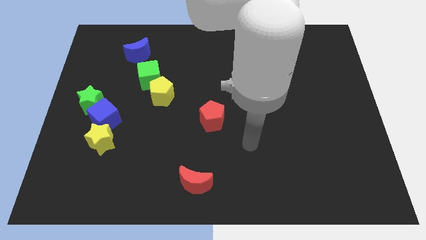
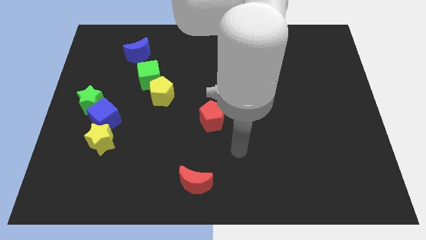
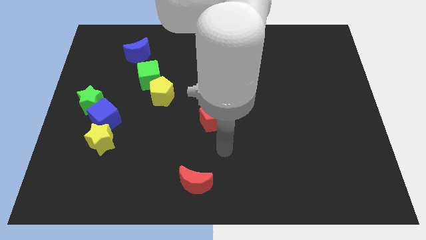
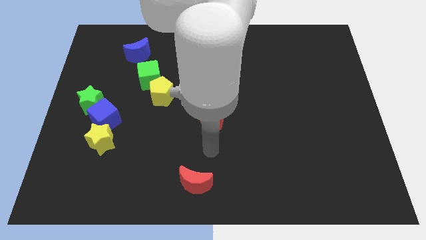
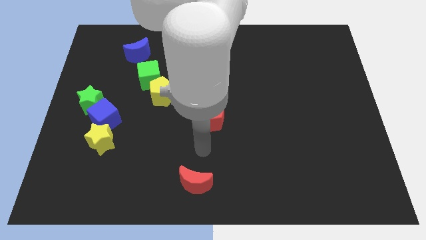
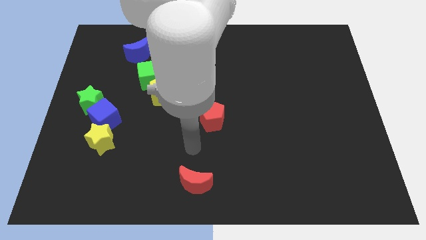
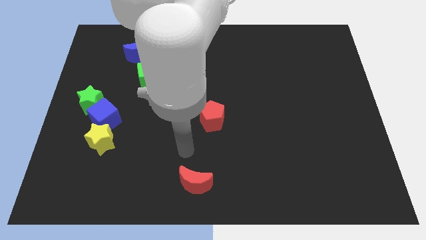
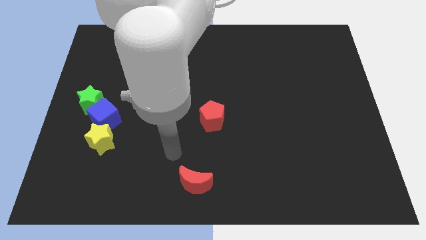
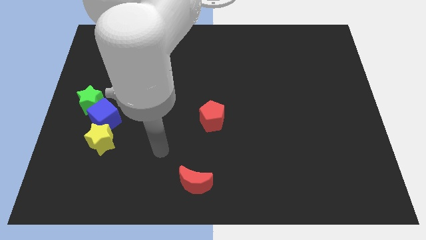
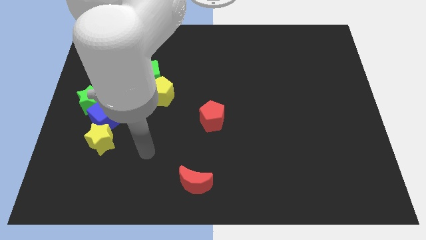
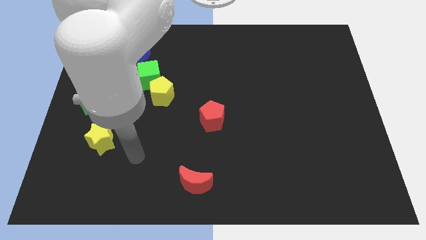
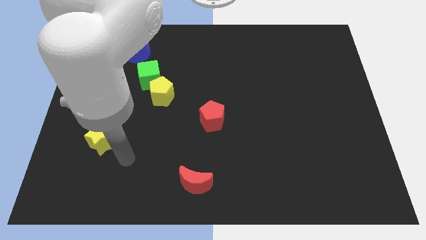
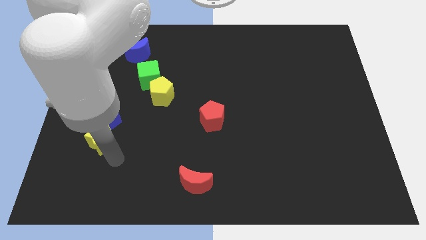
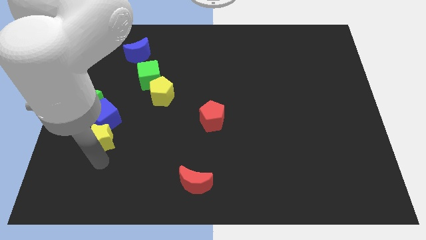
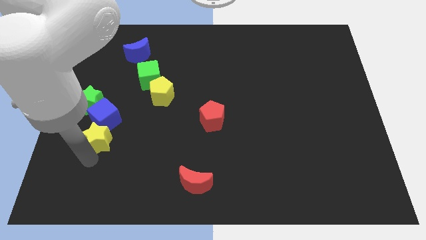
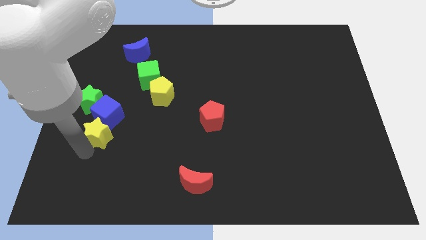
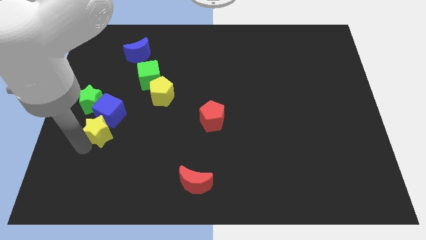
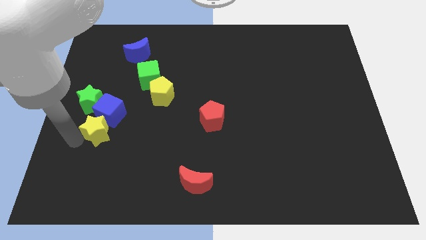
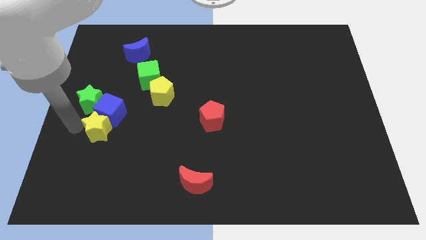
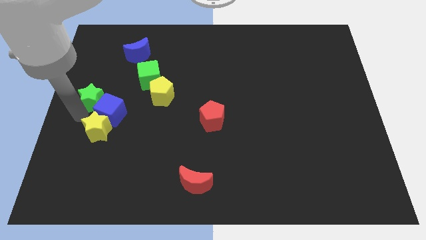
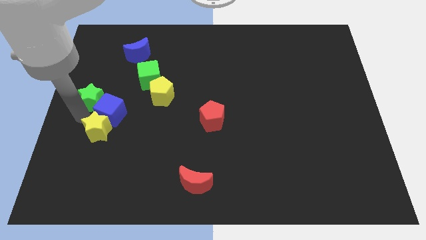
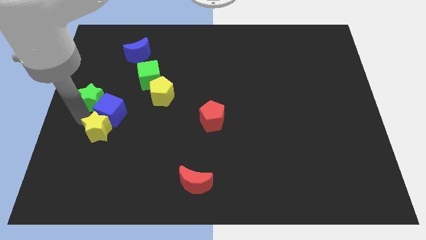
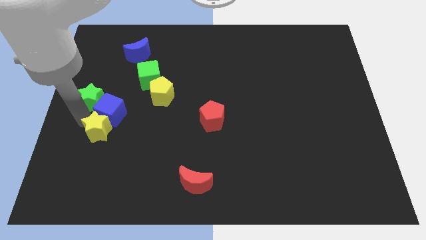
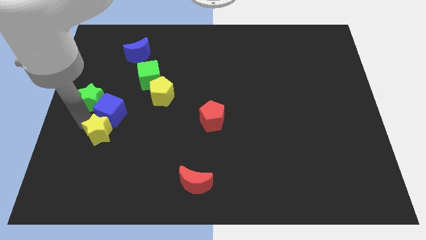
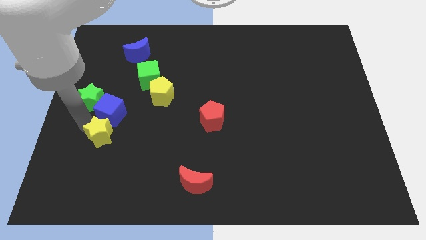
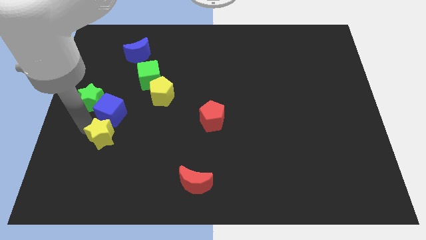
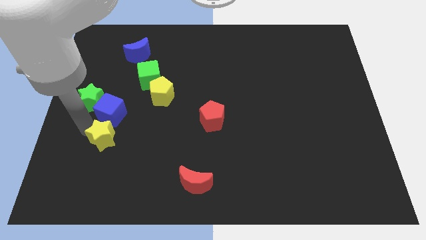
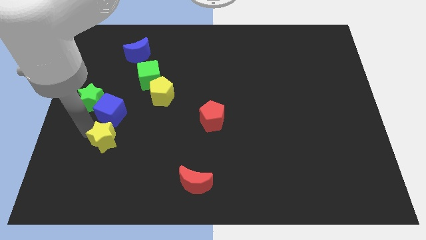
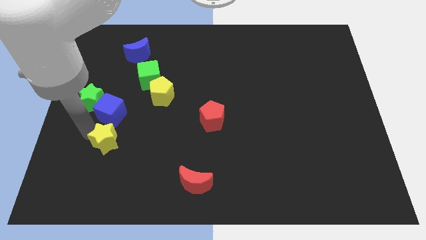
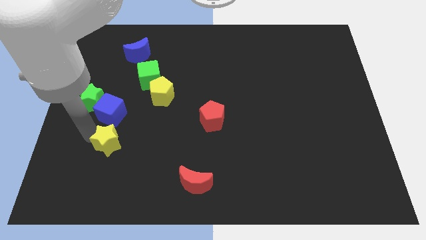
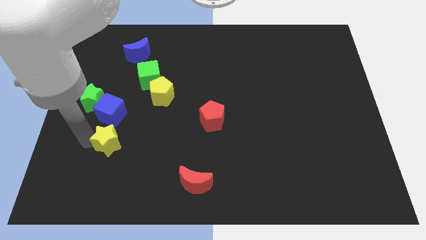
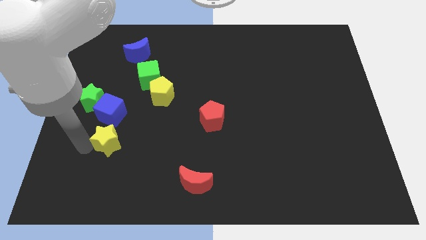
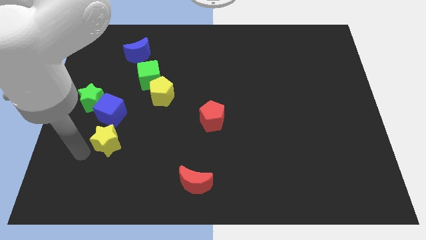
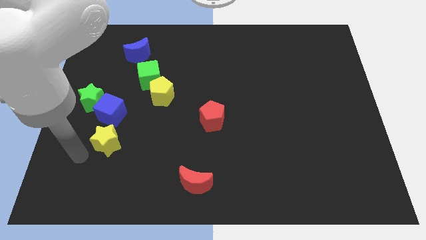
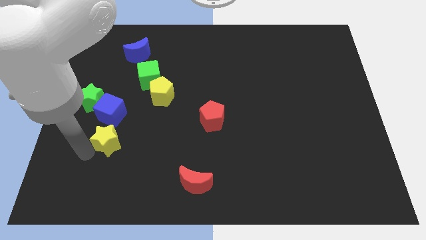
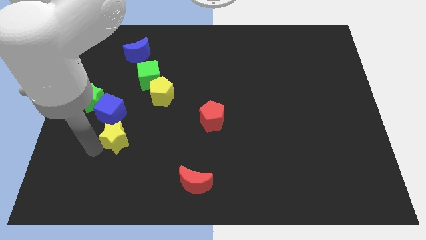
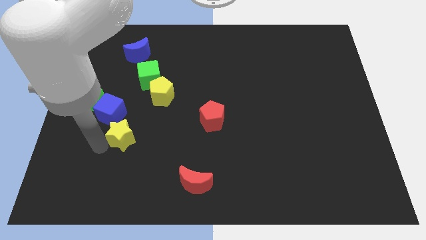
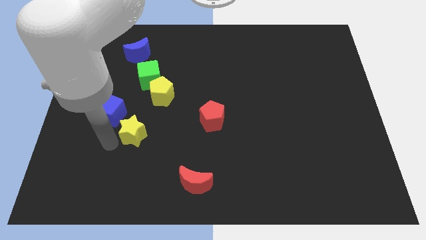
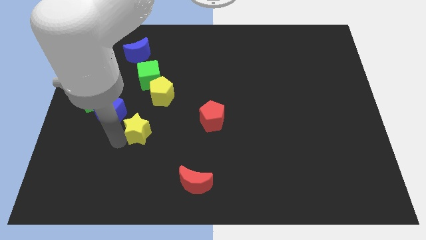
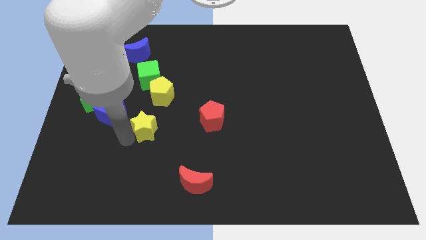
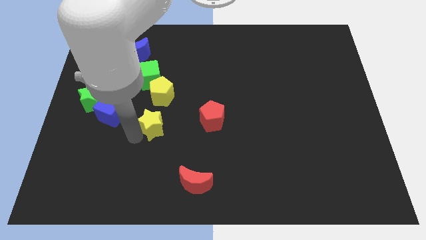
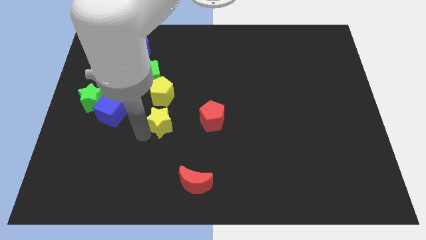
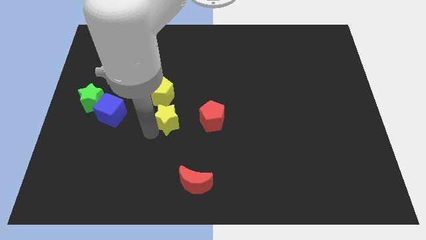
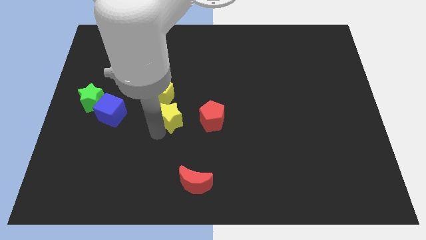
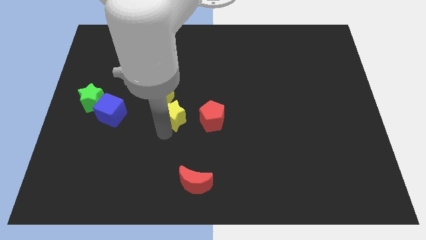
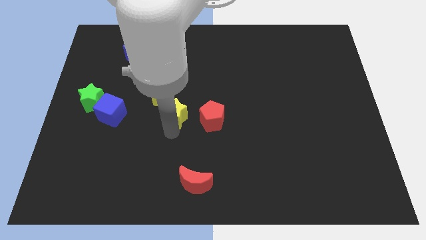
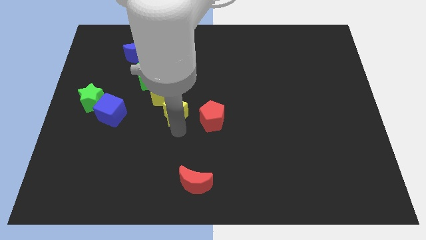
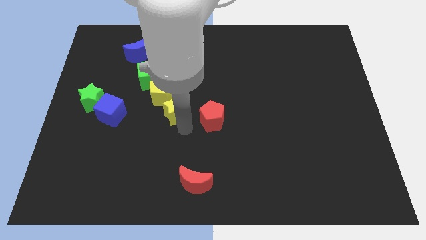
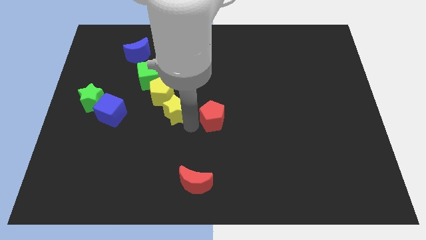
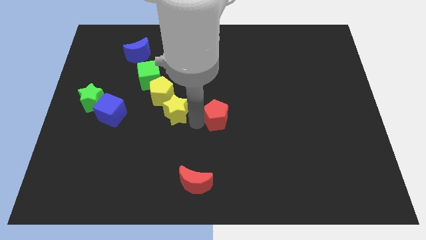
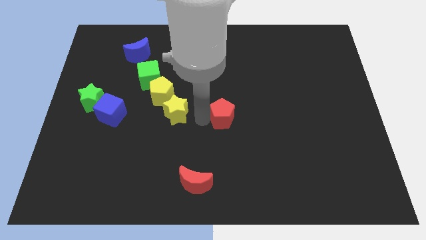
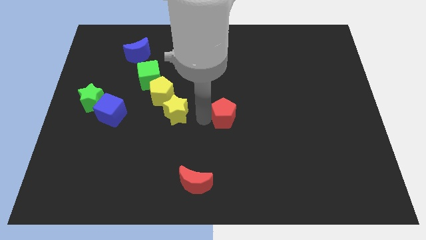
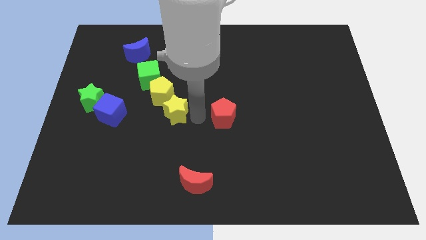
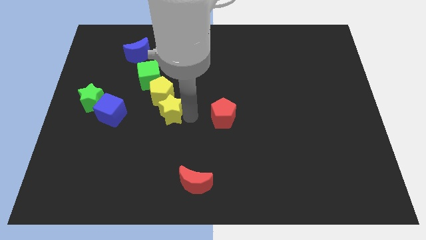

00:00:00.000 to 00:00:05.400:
move the yellow star to the yellow pentagon

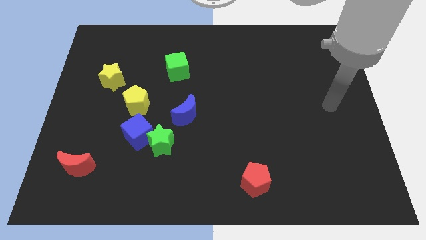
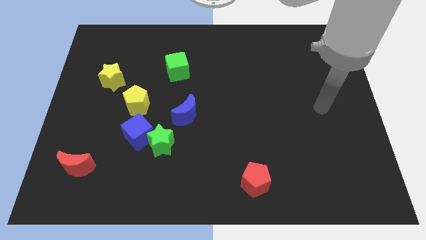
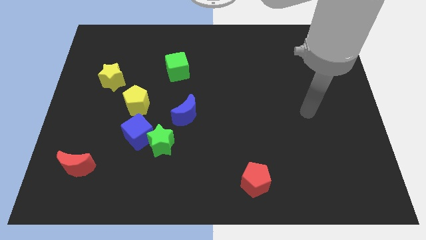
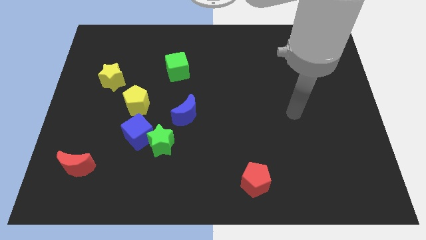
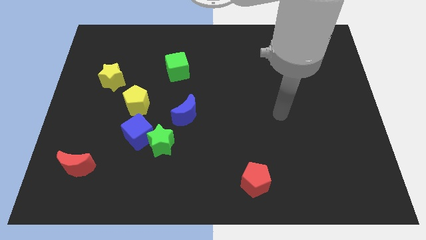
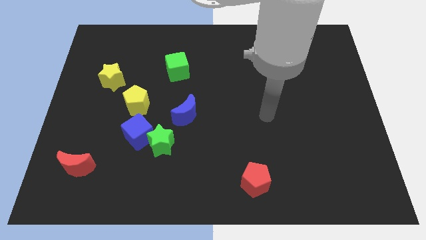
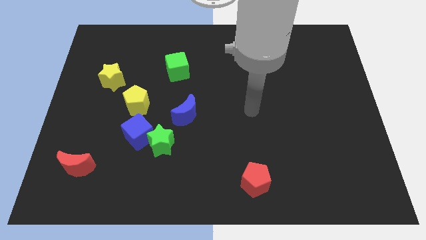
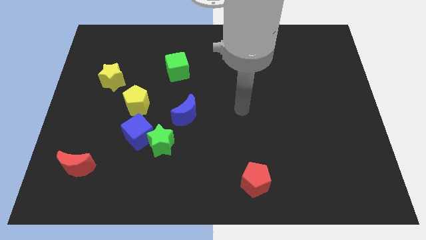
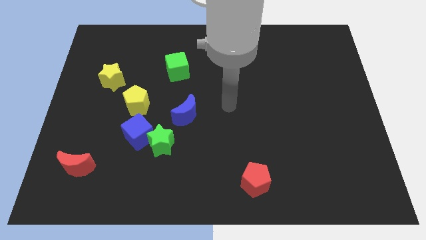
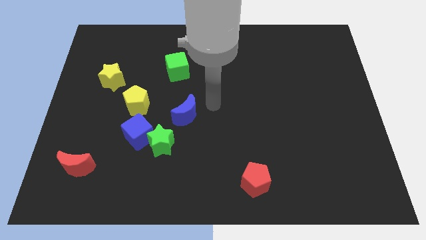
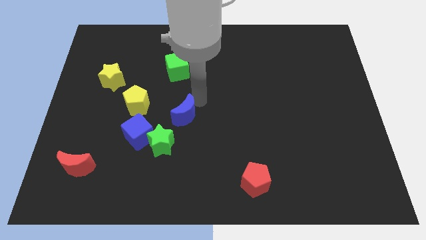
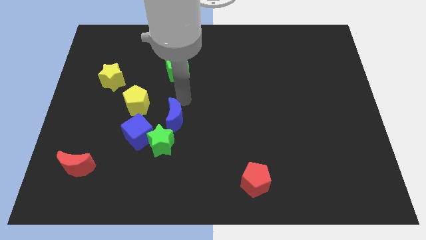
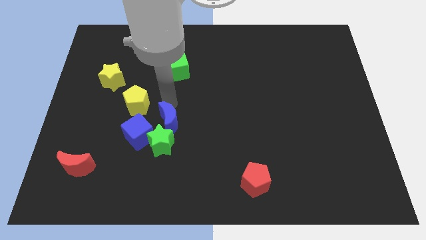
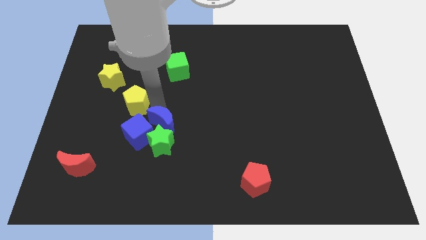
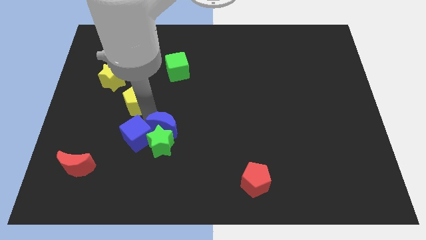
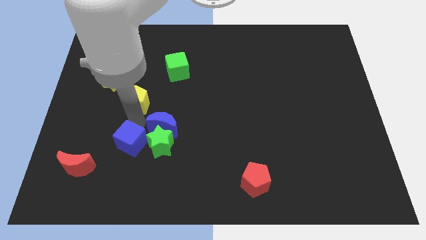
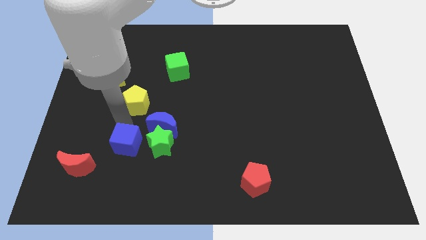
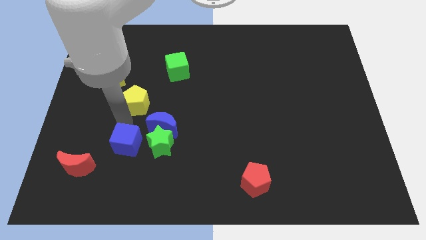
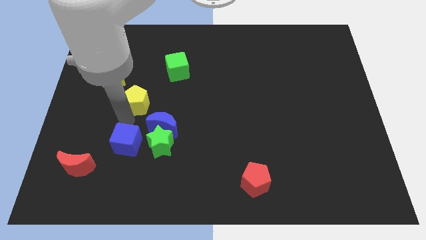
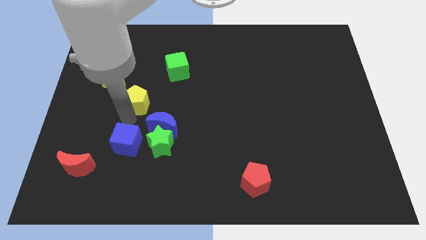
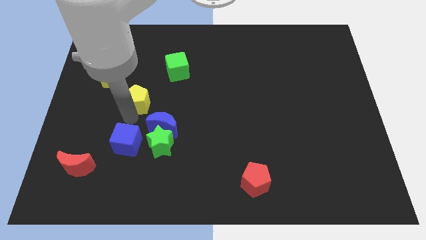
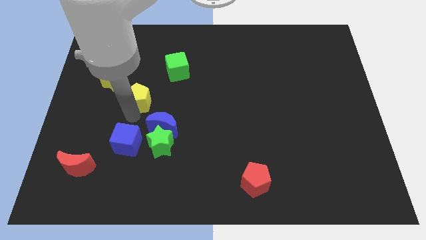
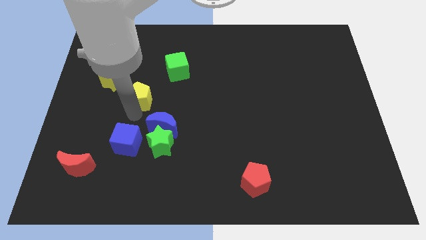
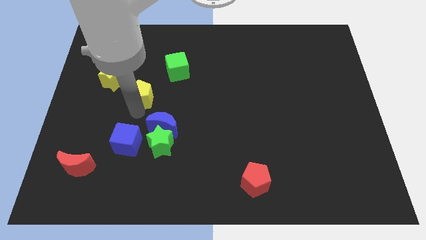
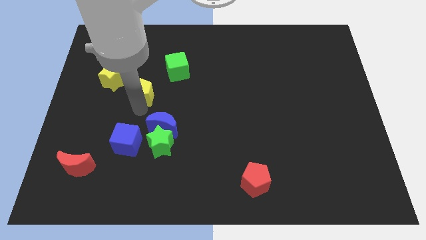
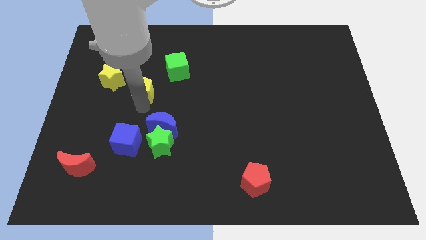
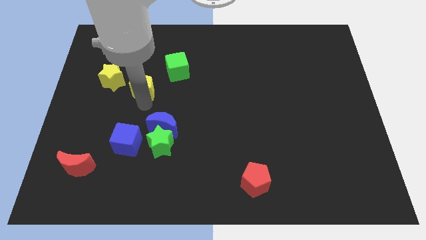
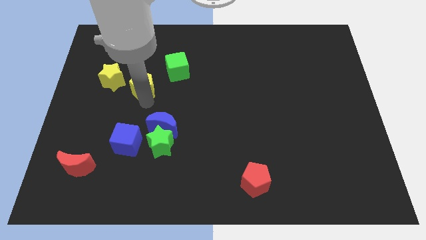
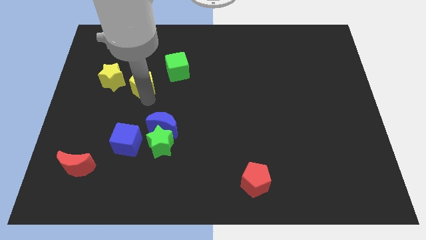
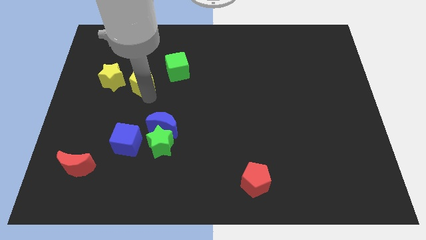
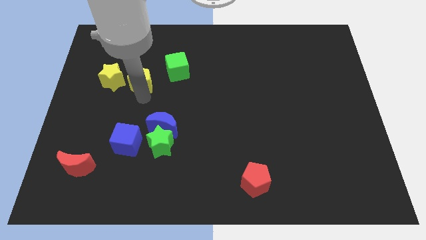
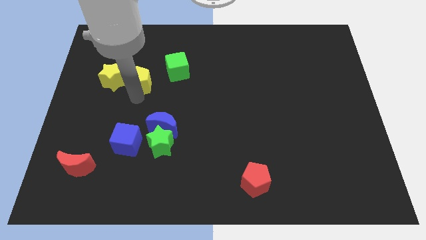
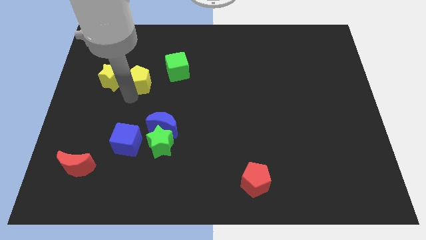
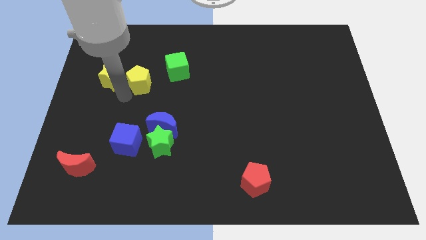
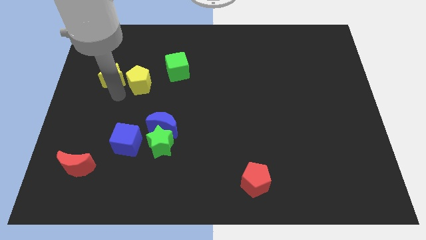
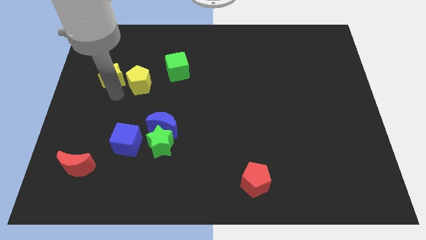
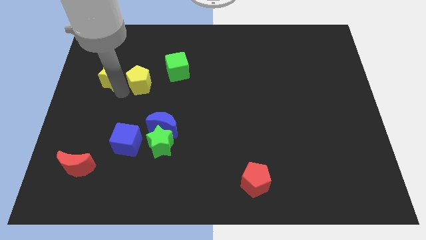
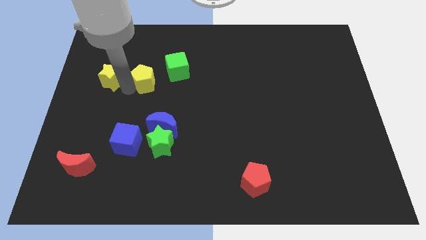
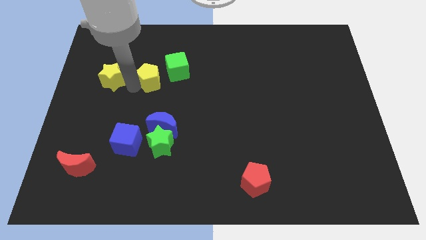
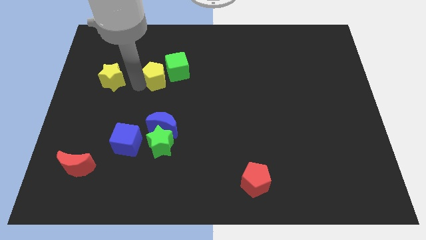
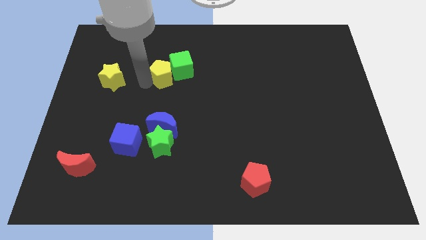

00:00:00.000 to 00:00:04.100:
move the yellow pentagon next to the green cube
